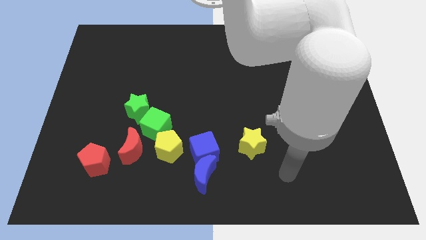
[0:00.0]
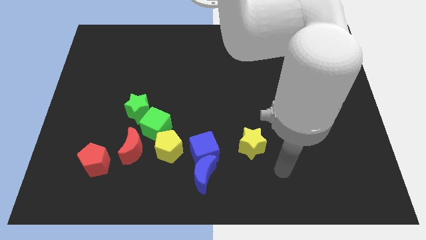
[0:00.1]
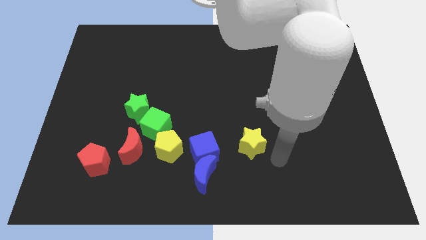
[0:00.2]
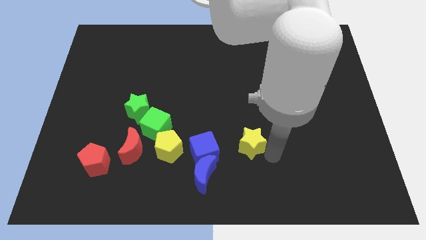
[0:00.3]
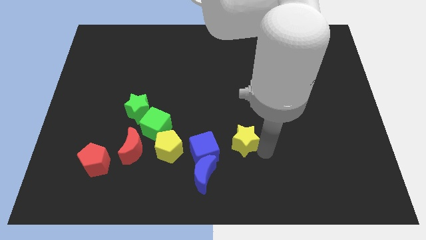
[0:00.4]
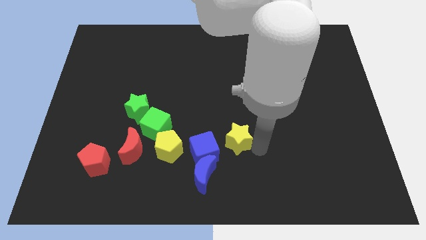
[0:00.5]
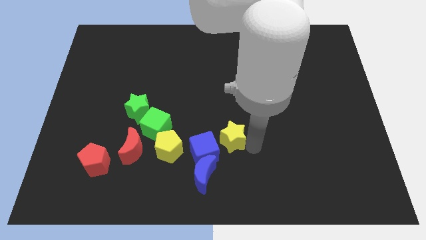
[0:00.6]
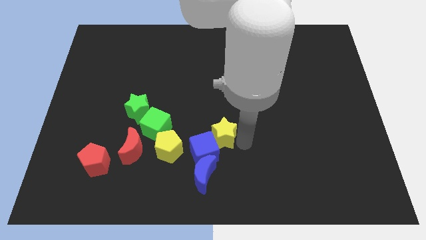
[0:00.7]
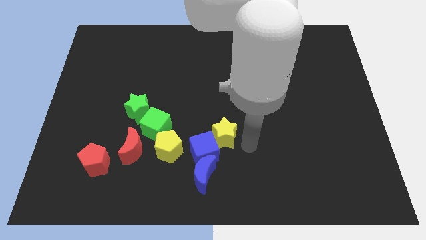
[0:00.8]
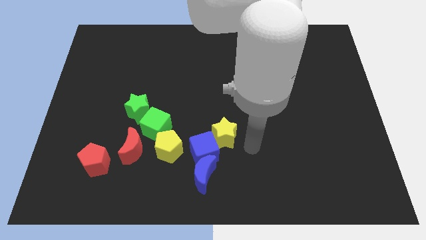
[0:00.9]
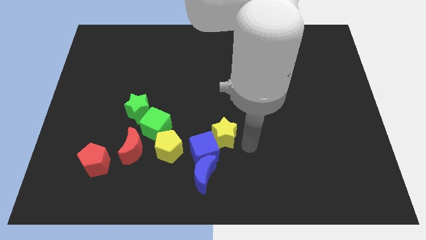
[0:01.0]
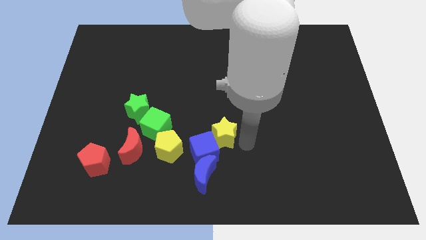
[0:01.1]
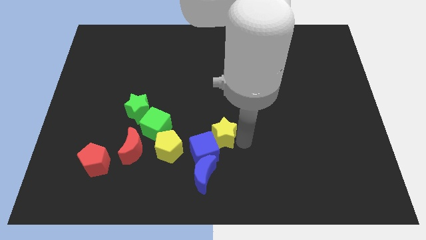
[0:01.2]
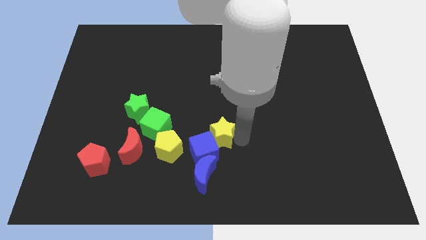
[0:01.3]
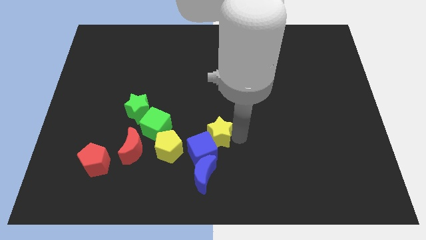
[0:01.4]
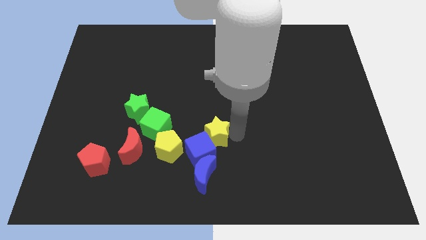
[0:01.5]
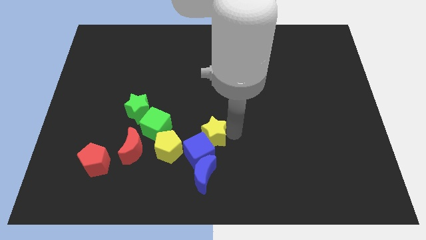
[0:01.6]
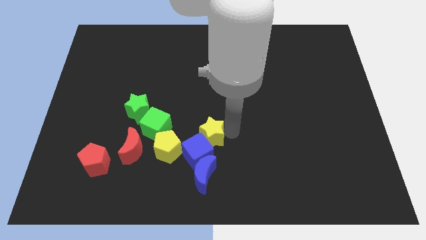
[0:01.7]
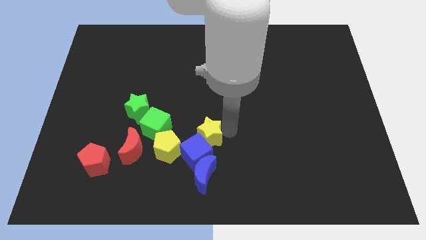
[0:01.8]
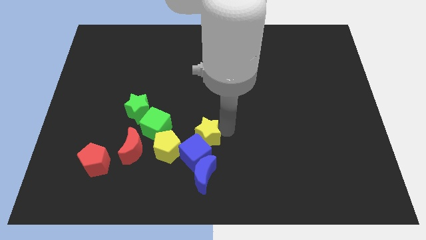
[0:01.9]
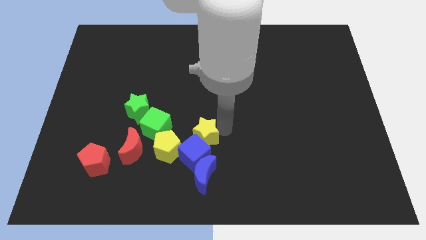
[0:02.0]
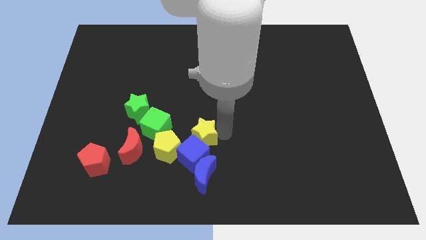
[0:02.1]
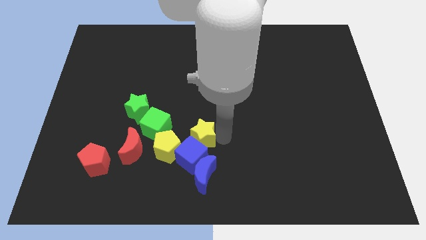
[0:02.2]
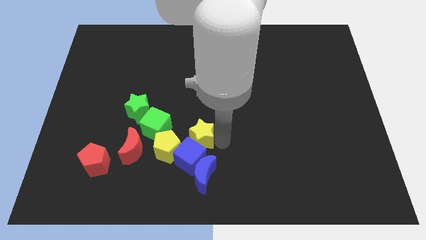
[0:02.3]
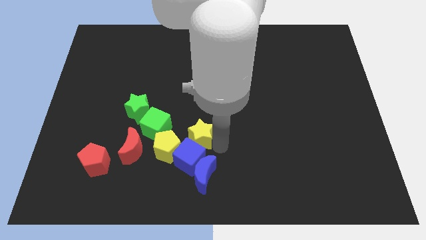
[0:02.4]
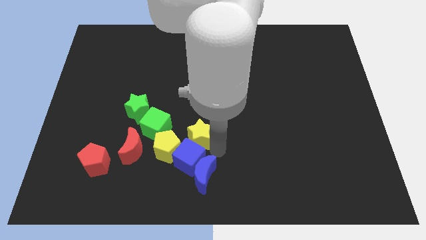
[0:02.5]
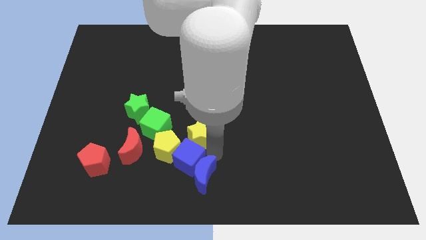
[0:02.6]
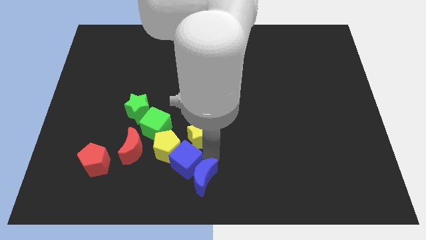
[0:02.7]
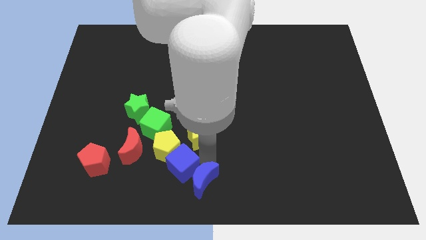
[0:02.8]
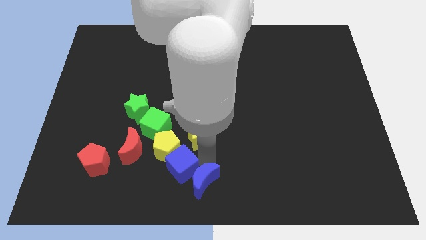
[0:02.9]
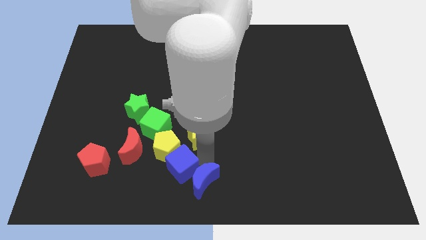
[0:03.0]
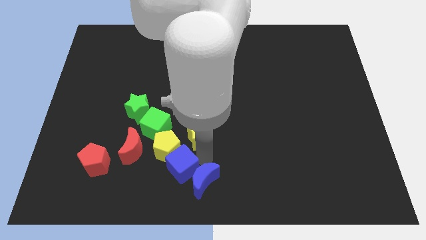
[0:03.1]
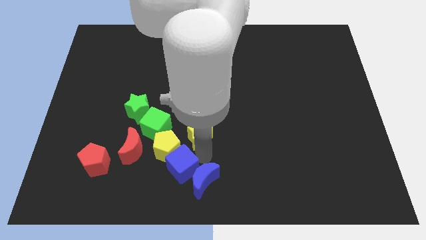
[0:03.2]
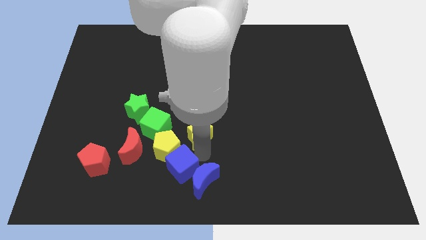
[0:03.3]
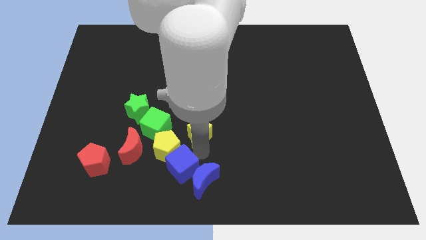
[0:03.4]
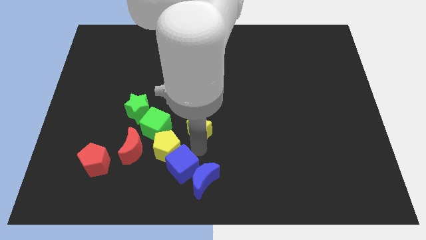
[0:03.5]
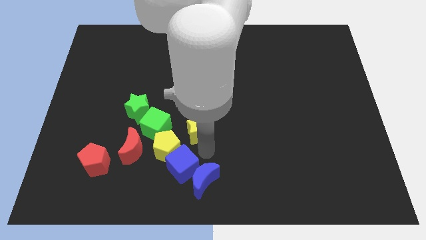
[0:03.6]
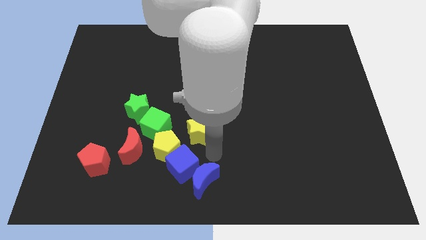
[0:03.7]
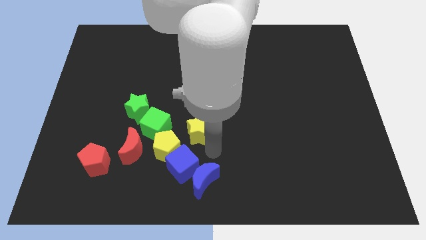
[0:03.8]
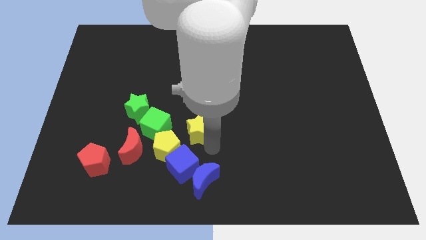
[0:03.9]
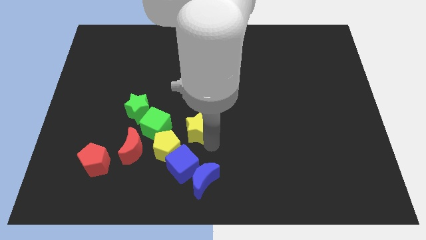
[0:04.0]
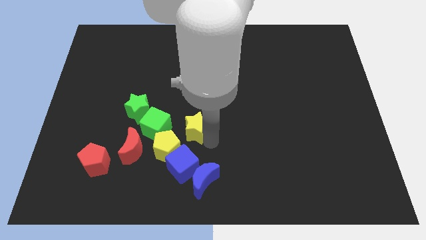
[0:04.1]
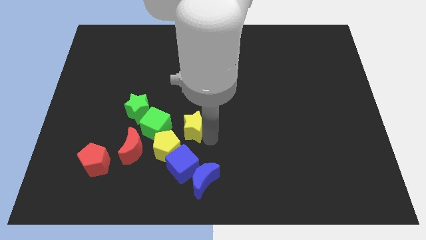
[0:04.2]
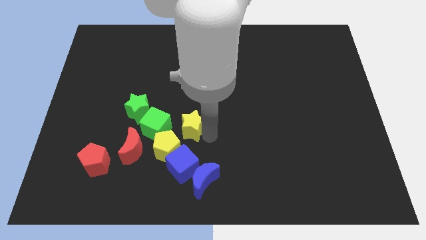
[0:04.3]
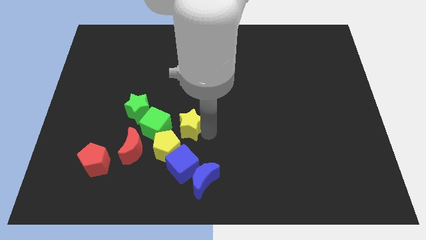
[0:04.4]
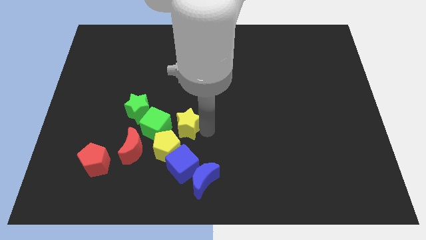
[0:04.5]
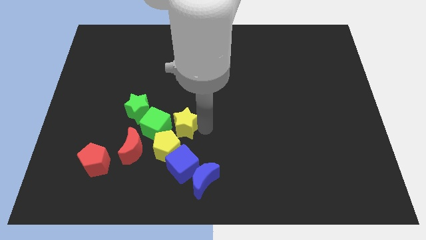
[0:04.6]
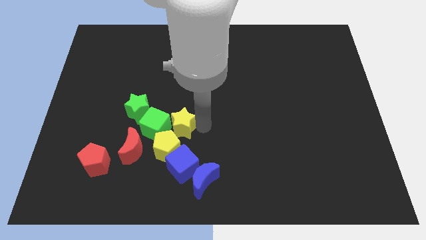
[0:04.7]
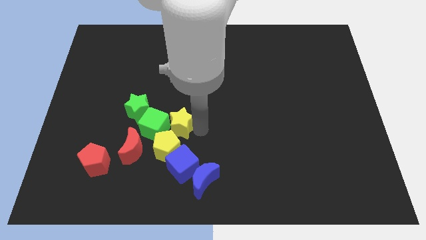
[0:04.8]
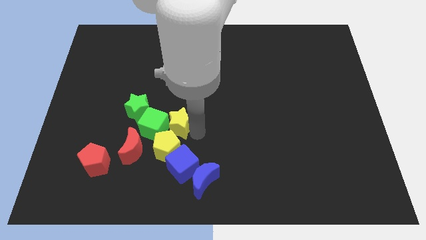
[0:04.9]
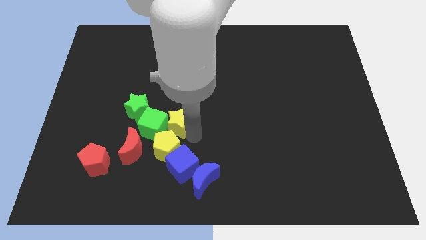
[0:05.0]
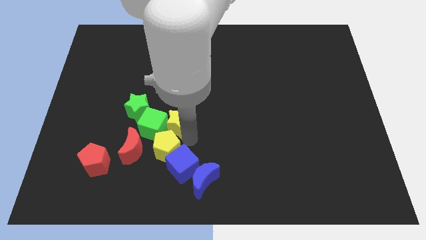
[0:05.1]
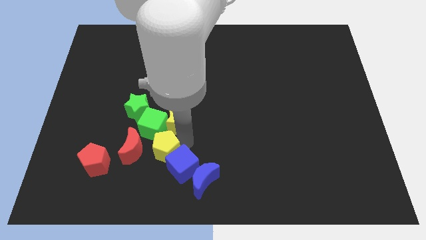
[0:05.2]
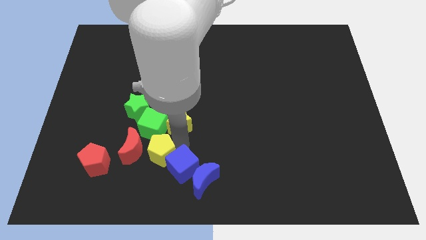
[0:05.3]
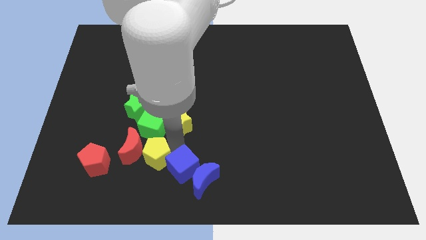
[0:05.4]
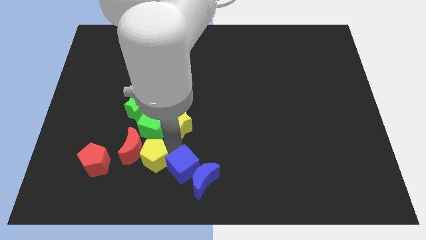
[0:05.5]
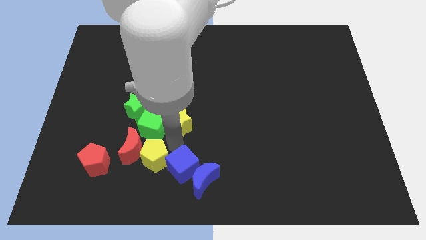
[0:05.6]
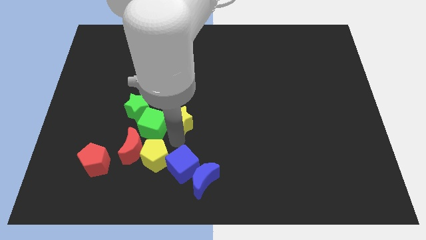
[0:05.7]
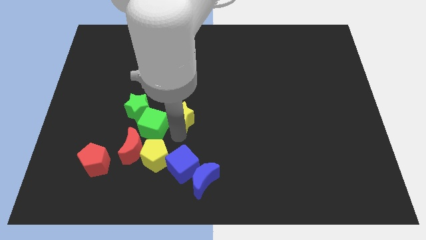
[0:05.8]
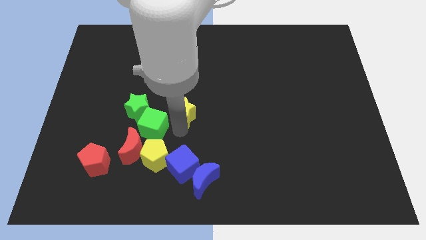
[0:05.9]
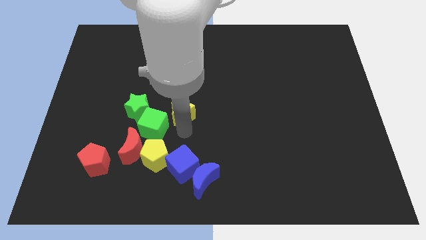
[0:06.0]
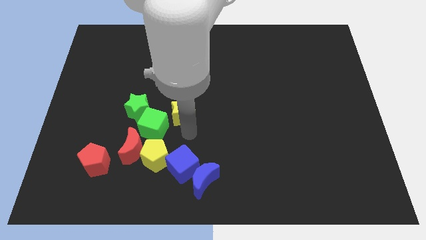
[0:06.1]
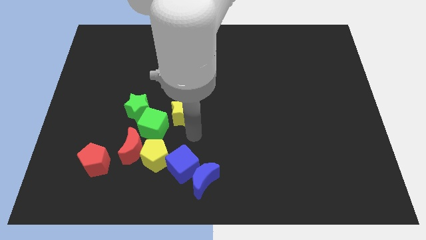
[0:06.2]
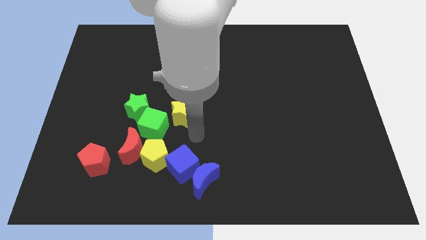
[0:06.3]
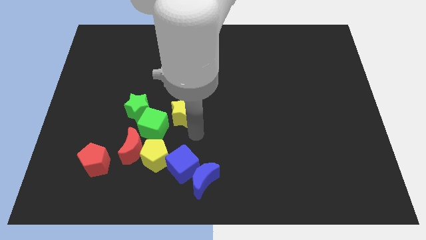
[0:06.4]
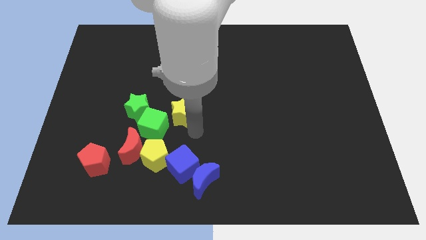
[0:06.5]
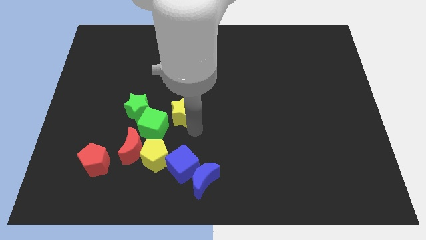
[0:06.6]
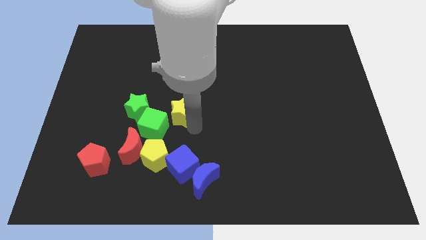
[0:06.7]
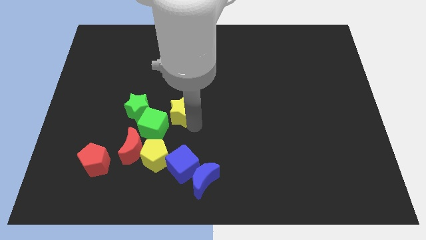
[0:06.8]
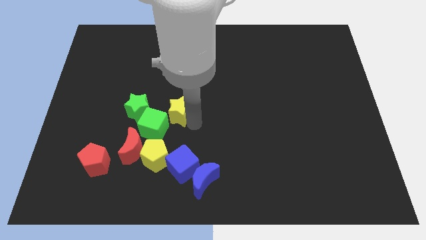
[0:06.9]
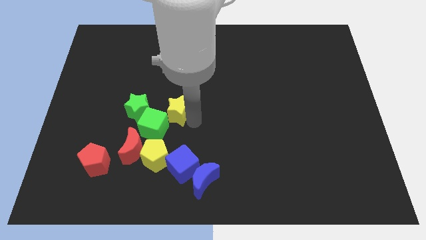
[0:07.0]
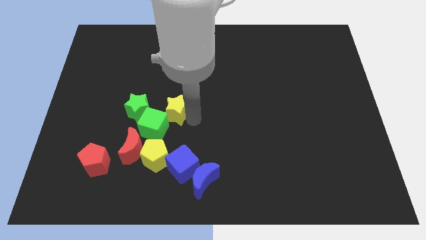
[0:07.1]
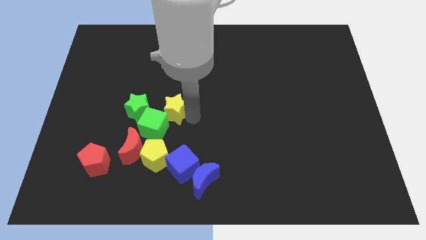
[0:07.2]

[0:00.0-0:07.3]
push the yellow star above the green cube

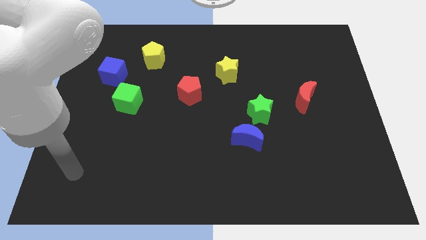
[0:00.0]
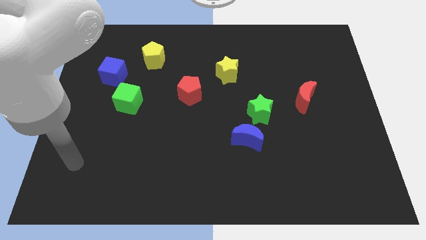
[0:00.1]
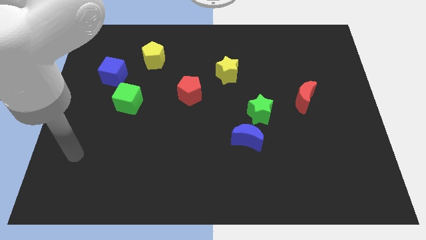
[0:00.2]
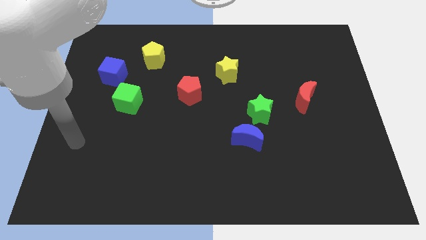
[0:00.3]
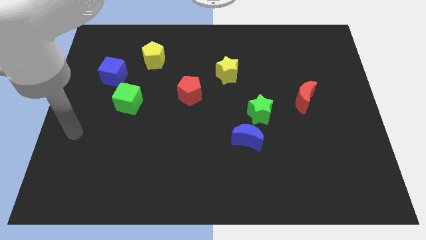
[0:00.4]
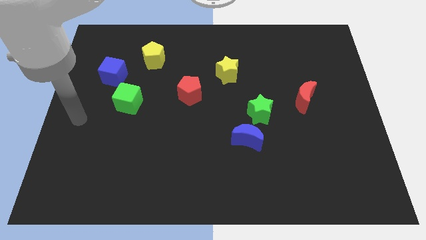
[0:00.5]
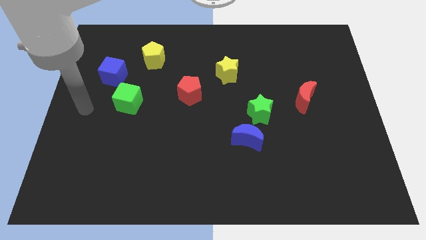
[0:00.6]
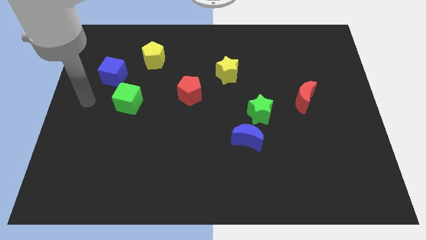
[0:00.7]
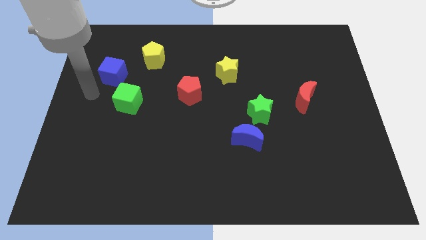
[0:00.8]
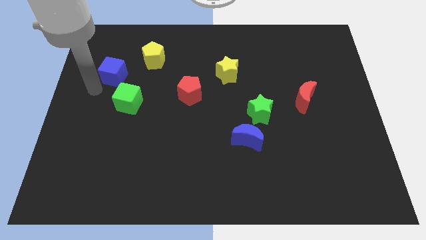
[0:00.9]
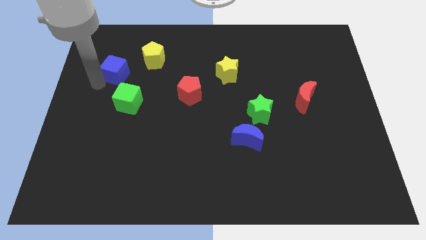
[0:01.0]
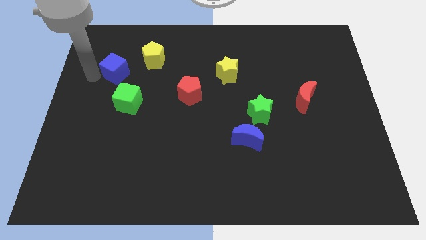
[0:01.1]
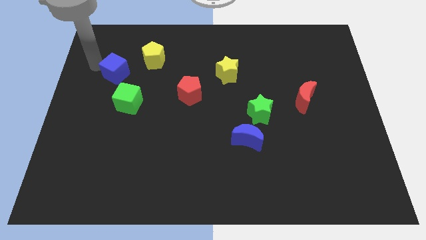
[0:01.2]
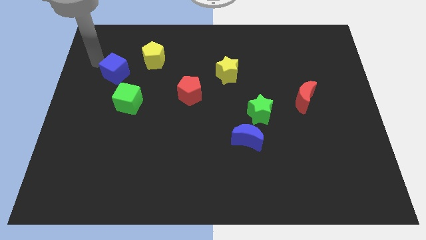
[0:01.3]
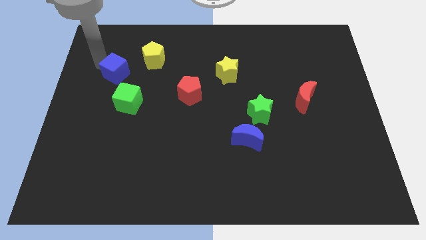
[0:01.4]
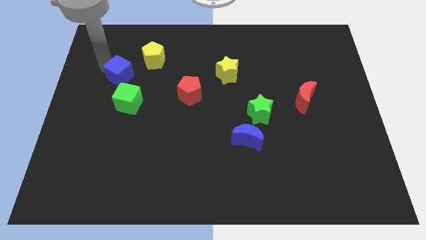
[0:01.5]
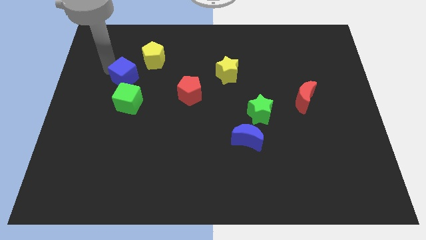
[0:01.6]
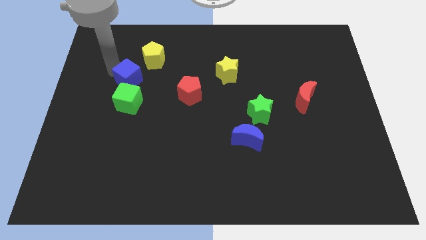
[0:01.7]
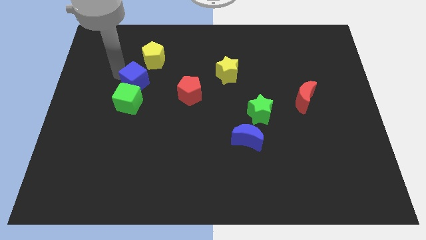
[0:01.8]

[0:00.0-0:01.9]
push the blue cube below the yellow pentagon
